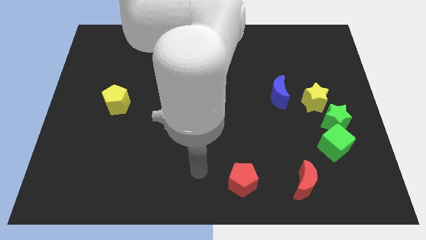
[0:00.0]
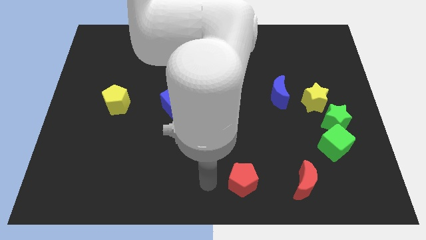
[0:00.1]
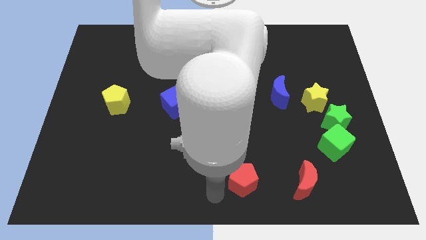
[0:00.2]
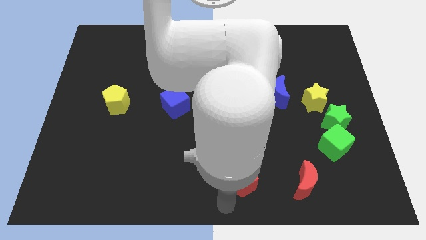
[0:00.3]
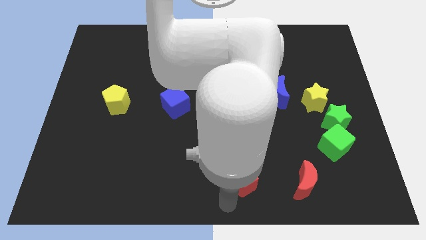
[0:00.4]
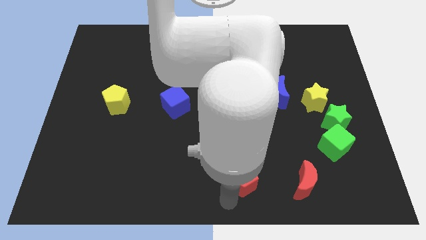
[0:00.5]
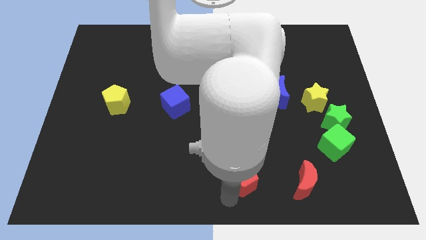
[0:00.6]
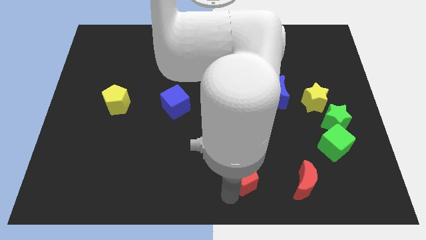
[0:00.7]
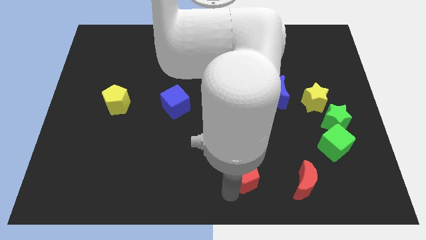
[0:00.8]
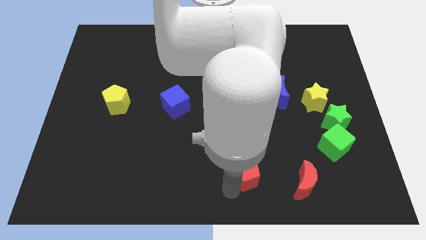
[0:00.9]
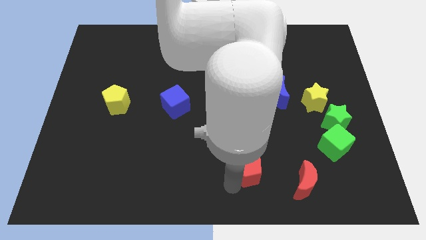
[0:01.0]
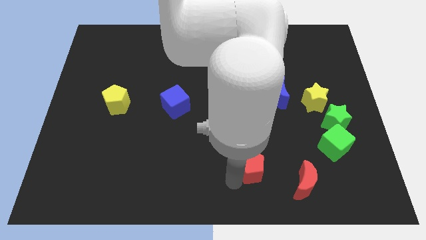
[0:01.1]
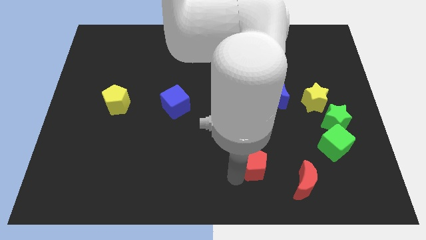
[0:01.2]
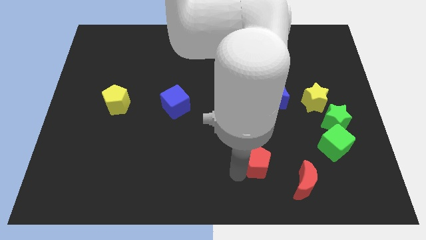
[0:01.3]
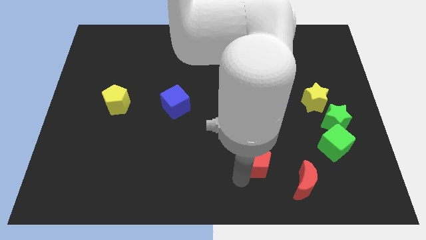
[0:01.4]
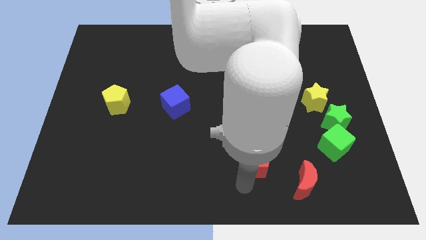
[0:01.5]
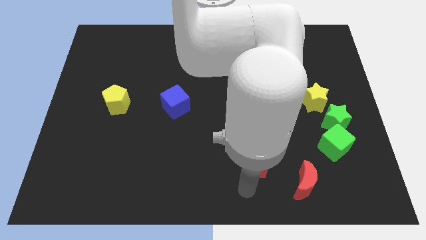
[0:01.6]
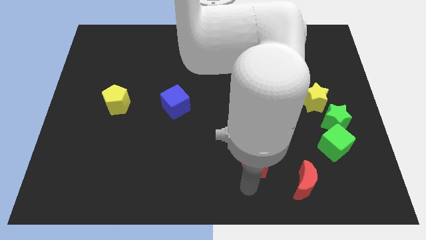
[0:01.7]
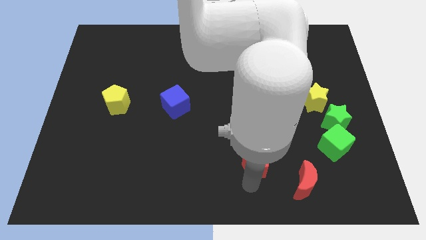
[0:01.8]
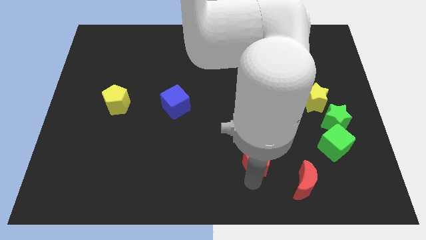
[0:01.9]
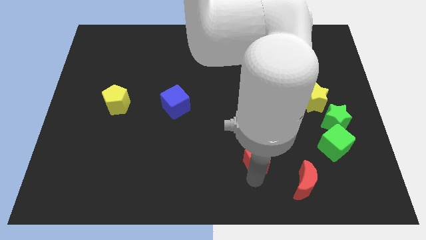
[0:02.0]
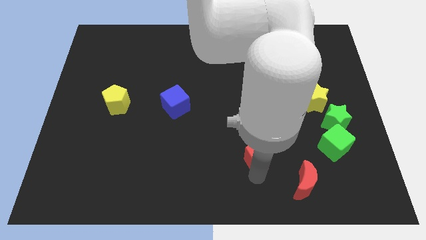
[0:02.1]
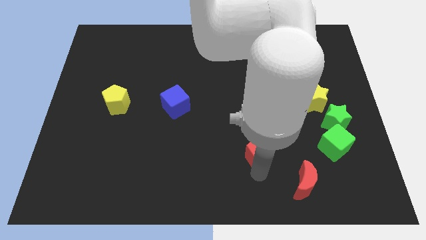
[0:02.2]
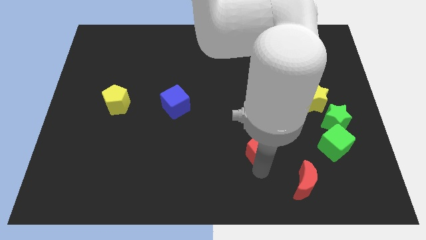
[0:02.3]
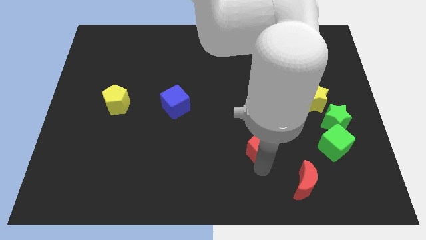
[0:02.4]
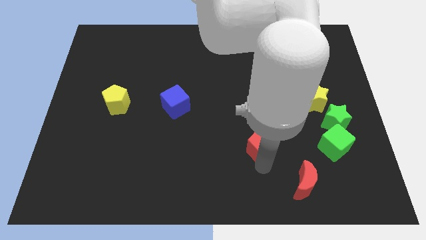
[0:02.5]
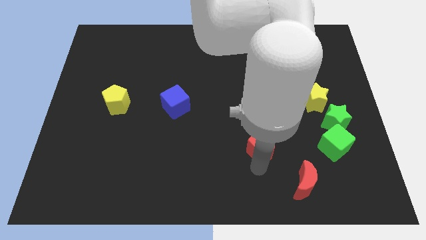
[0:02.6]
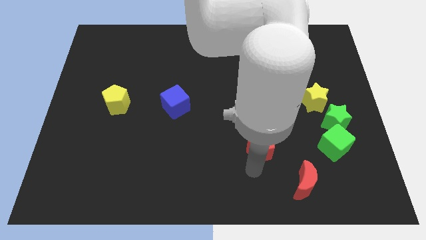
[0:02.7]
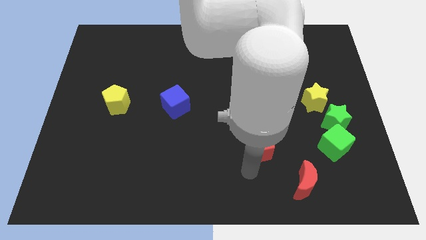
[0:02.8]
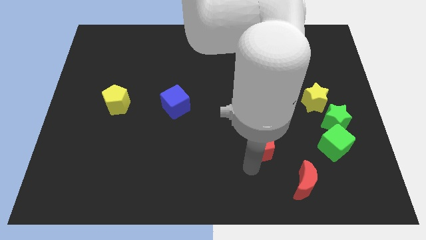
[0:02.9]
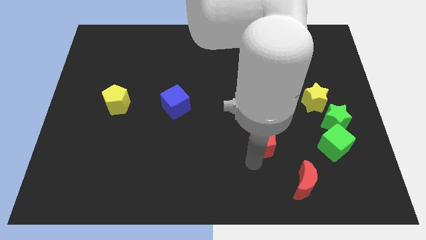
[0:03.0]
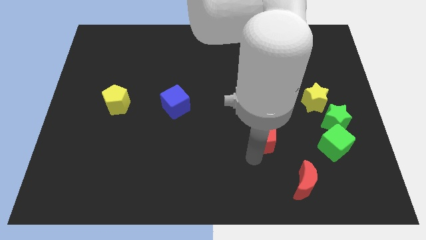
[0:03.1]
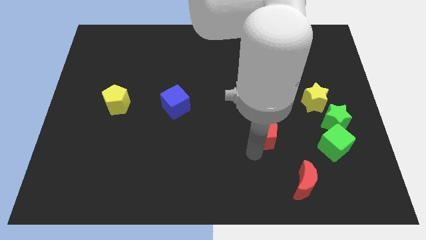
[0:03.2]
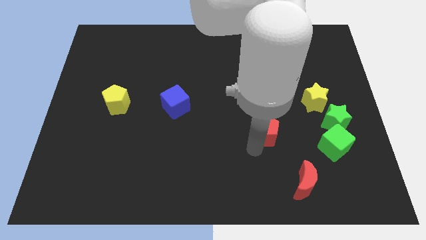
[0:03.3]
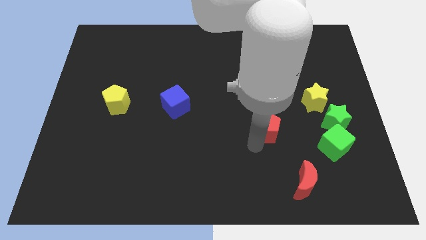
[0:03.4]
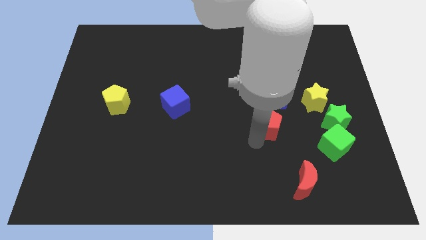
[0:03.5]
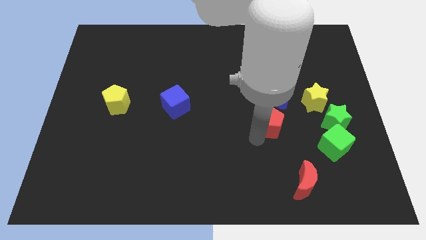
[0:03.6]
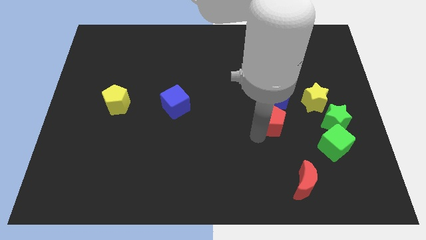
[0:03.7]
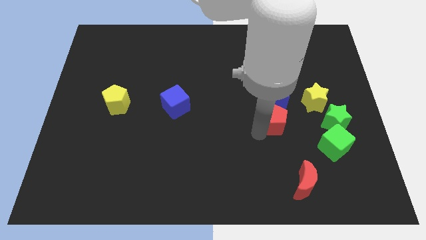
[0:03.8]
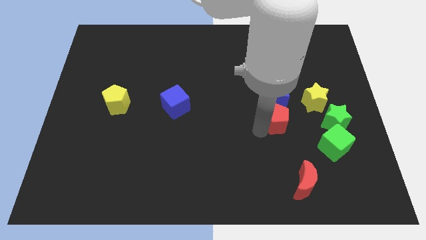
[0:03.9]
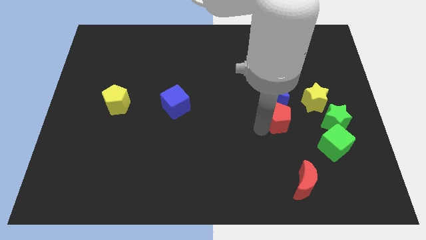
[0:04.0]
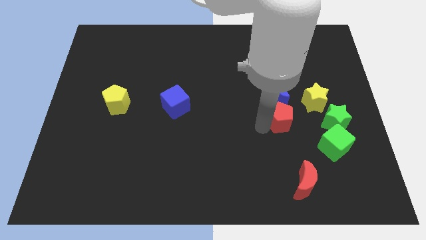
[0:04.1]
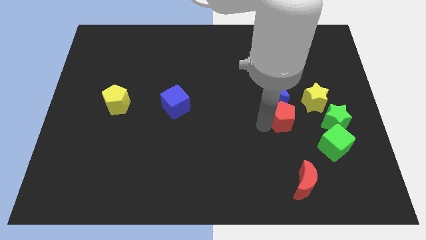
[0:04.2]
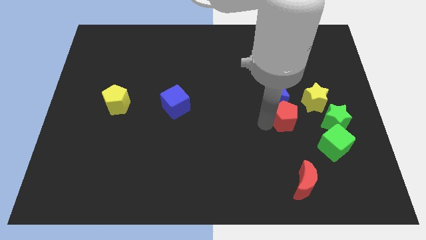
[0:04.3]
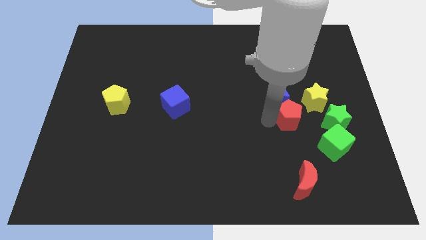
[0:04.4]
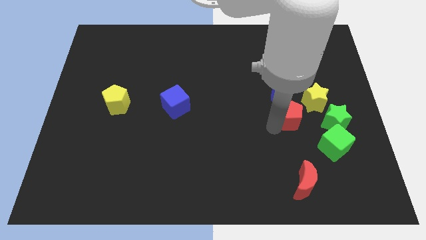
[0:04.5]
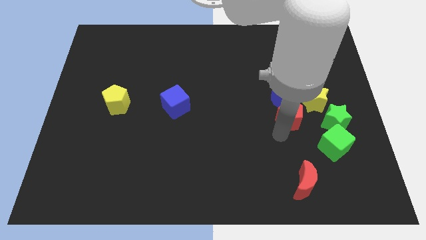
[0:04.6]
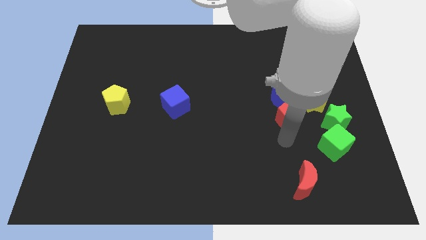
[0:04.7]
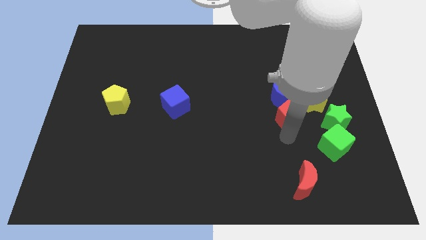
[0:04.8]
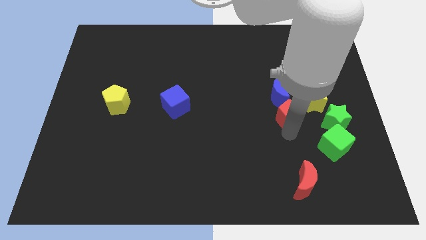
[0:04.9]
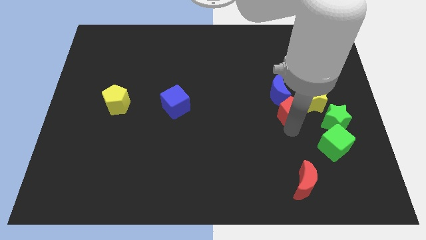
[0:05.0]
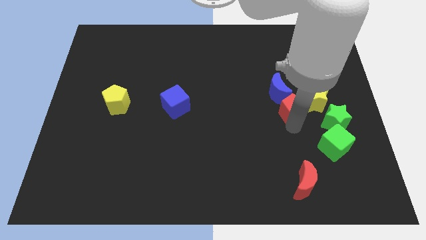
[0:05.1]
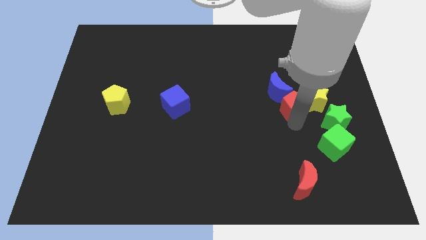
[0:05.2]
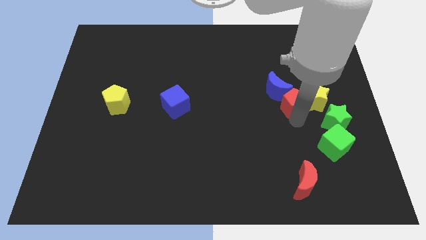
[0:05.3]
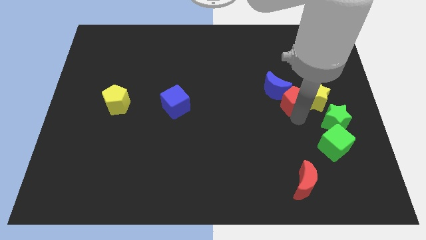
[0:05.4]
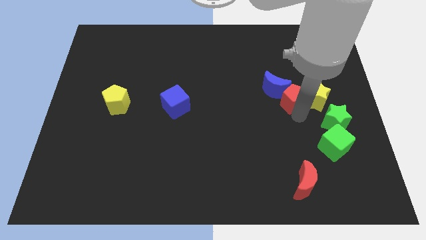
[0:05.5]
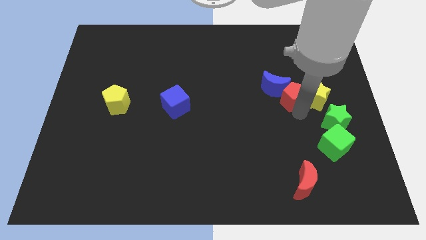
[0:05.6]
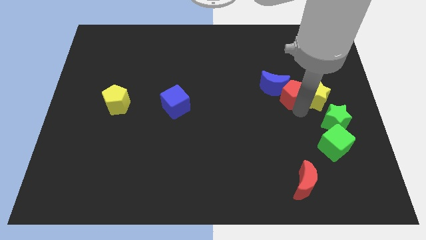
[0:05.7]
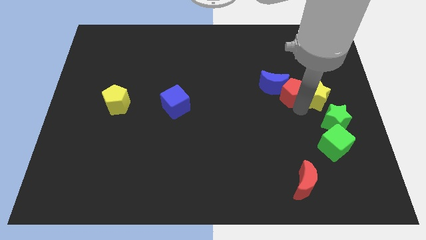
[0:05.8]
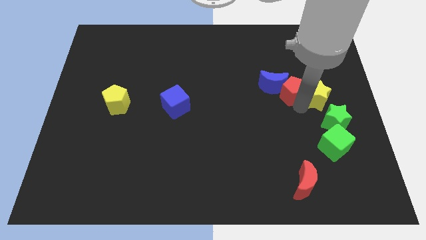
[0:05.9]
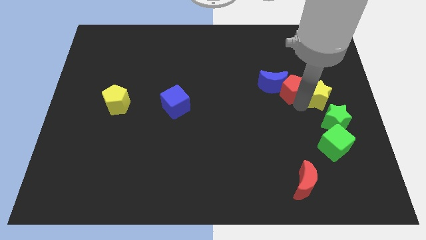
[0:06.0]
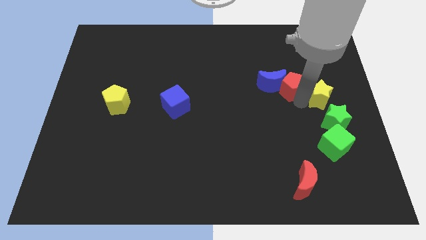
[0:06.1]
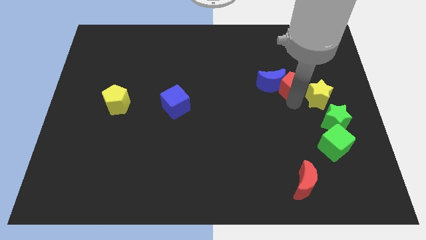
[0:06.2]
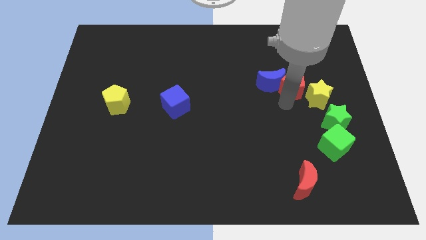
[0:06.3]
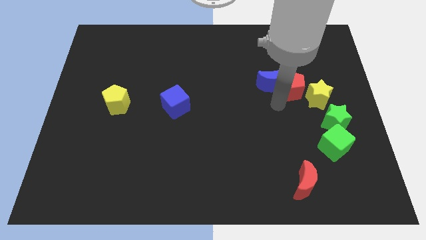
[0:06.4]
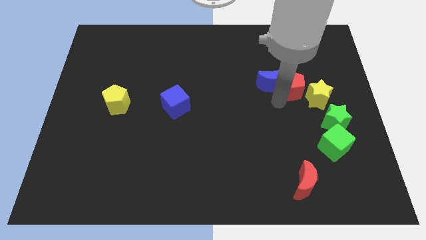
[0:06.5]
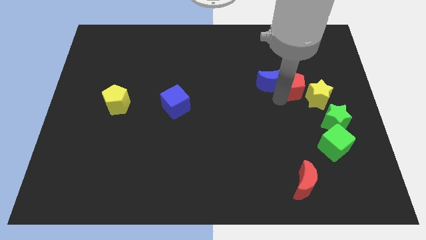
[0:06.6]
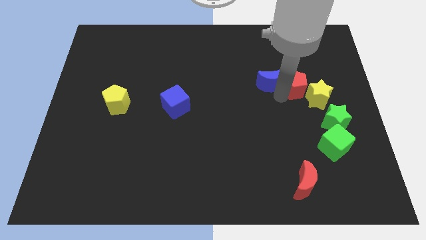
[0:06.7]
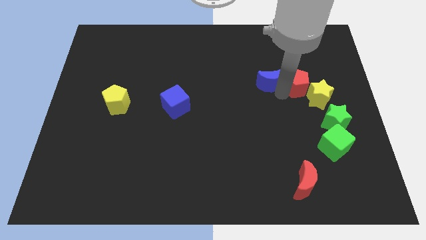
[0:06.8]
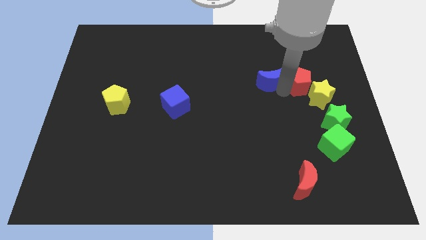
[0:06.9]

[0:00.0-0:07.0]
push the red pentagon above the yellow star
